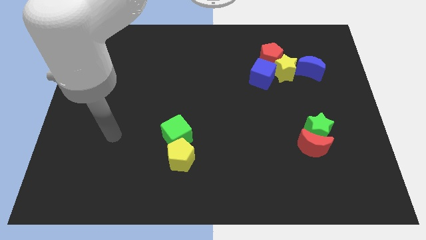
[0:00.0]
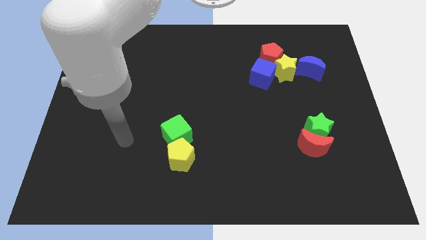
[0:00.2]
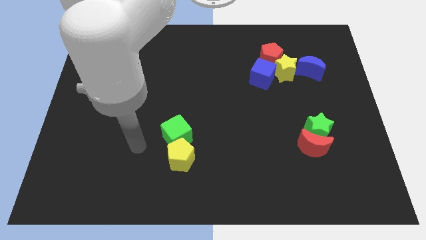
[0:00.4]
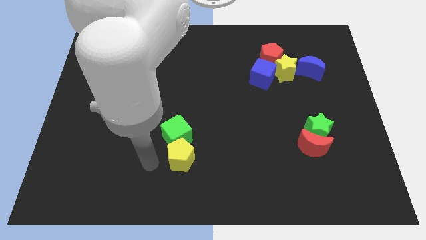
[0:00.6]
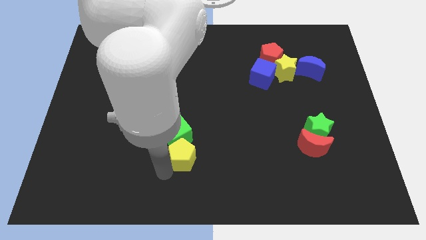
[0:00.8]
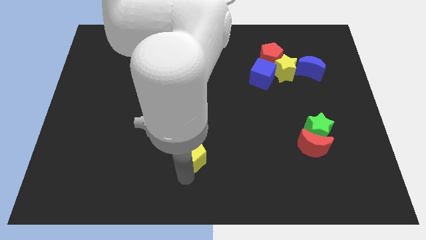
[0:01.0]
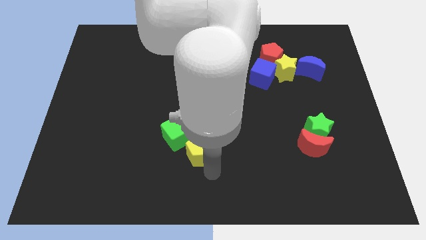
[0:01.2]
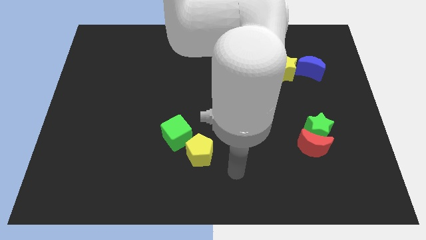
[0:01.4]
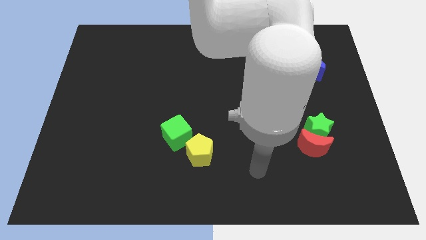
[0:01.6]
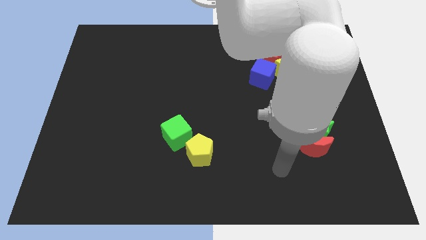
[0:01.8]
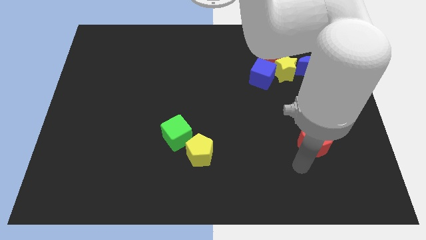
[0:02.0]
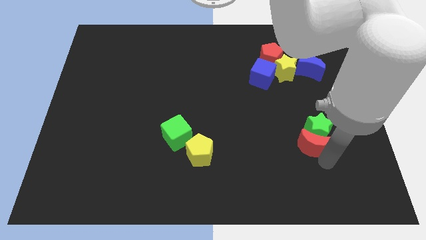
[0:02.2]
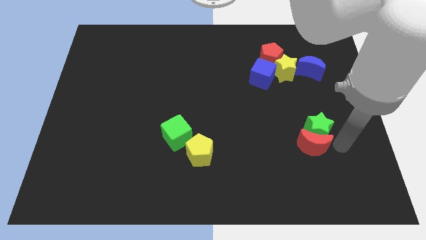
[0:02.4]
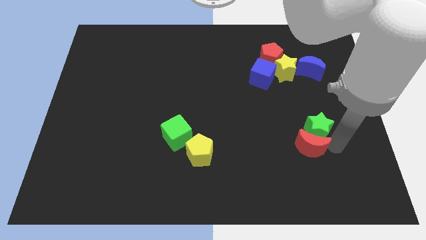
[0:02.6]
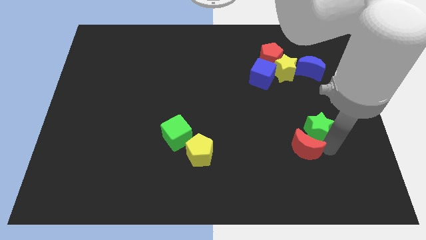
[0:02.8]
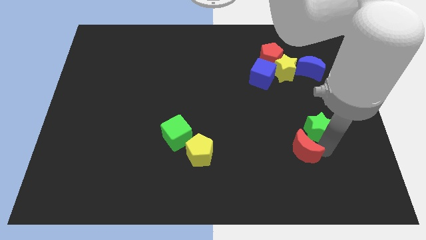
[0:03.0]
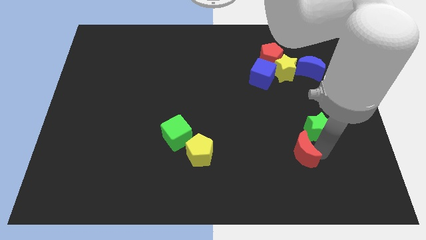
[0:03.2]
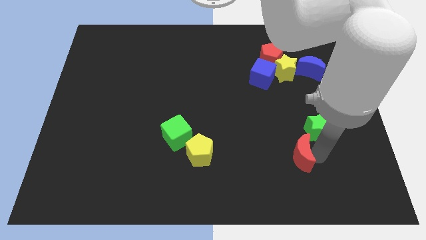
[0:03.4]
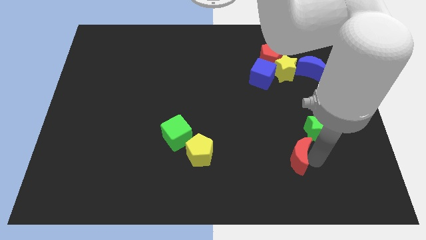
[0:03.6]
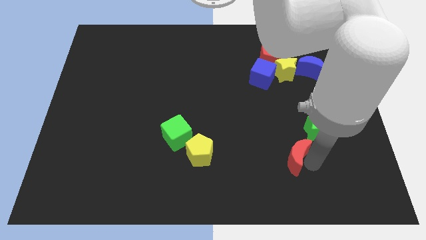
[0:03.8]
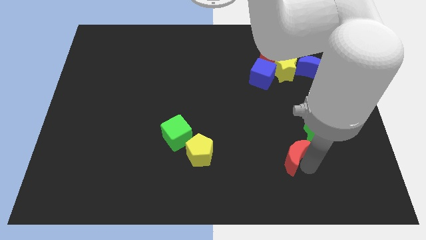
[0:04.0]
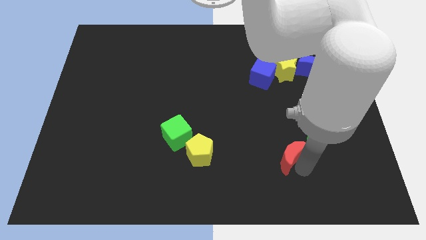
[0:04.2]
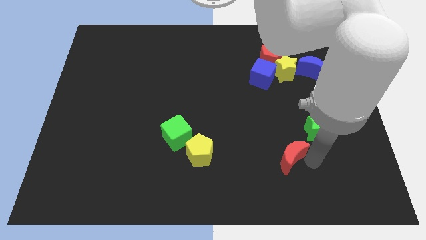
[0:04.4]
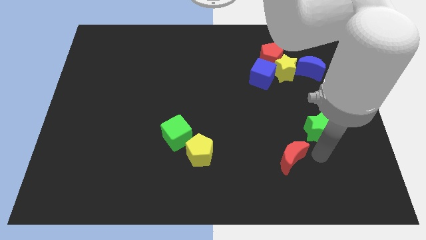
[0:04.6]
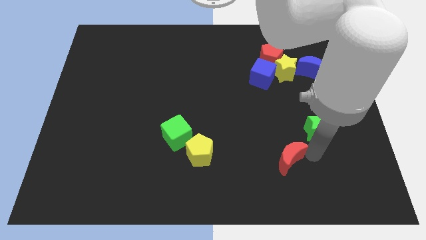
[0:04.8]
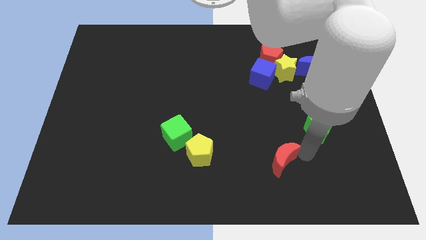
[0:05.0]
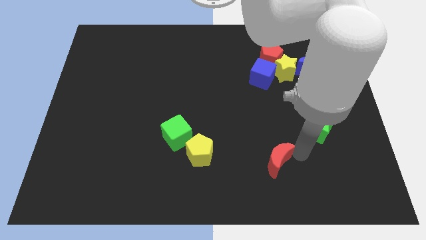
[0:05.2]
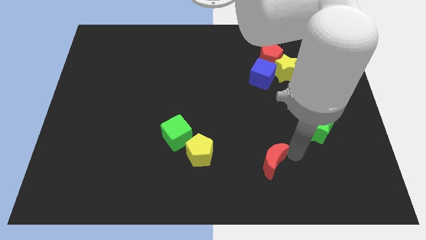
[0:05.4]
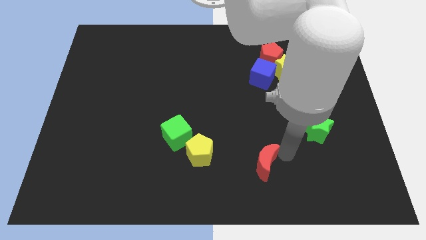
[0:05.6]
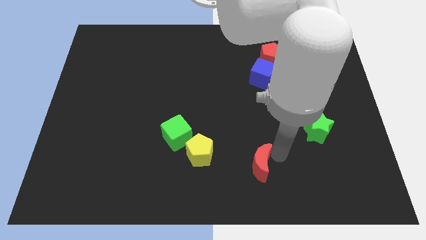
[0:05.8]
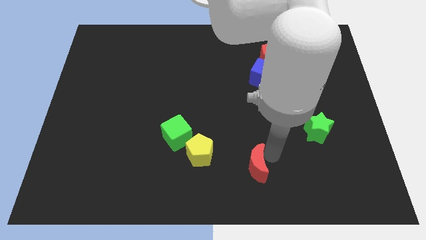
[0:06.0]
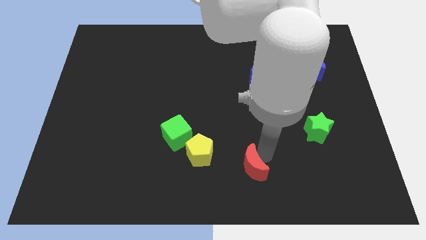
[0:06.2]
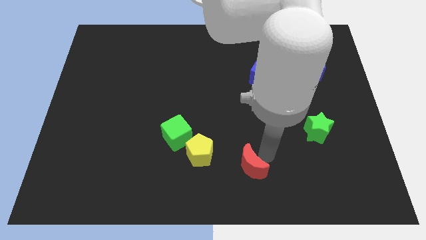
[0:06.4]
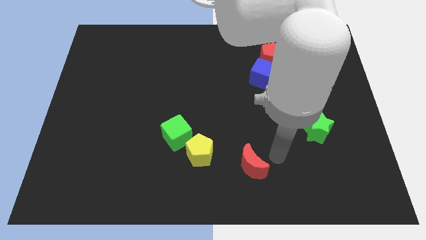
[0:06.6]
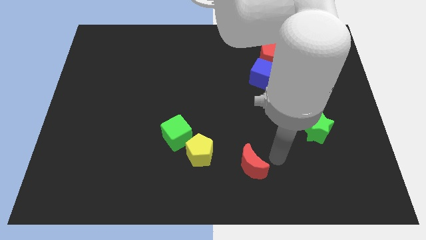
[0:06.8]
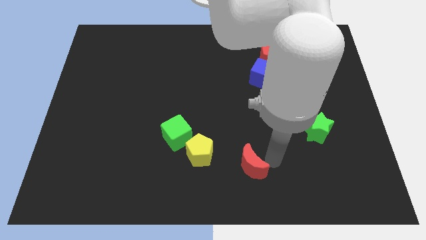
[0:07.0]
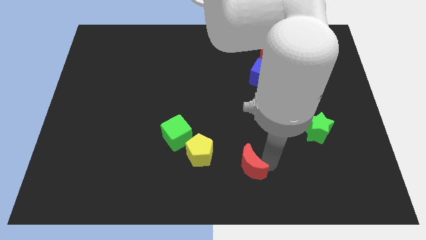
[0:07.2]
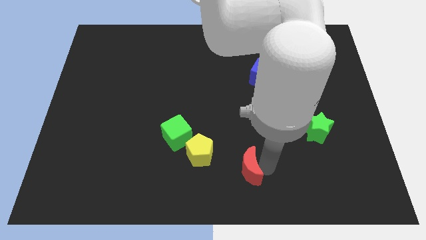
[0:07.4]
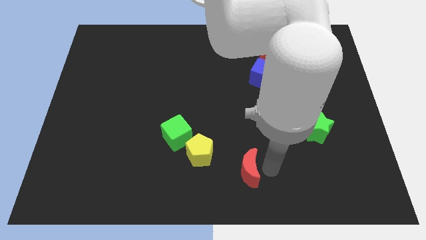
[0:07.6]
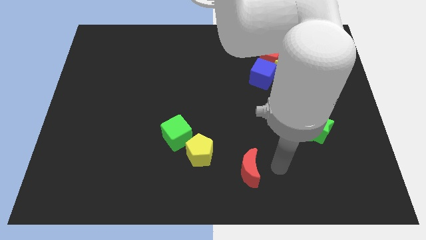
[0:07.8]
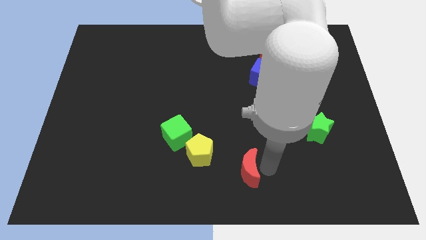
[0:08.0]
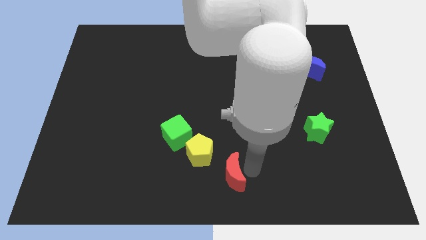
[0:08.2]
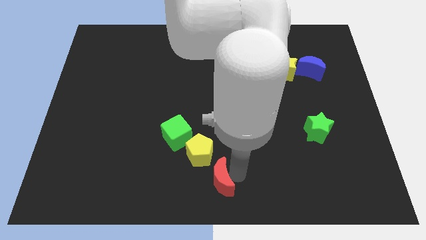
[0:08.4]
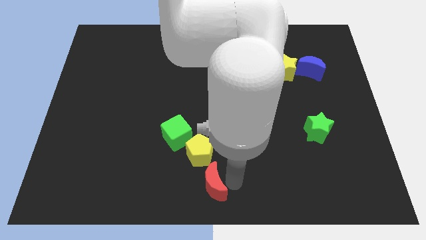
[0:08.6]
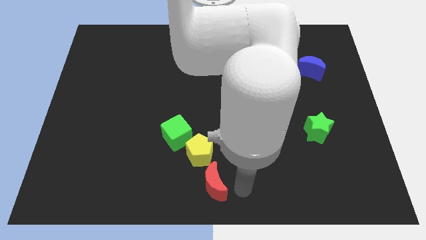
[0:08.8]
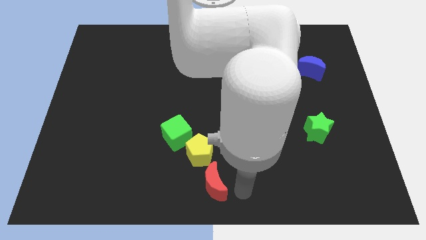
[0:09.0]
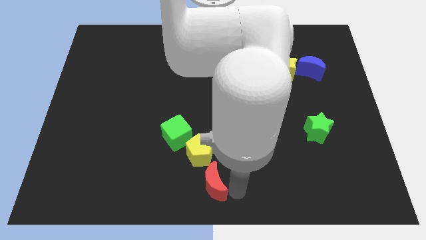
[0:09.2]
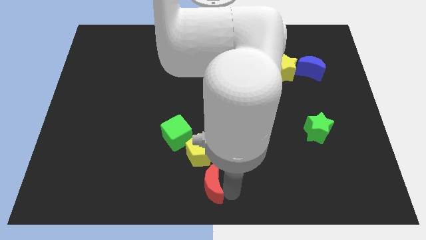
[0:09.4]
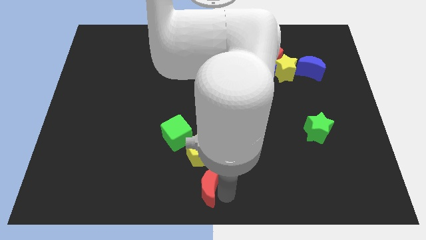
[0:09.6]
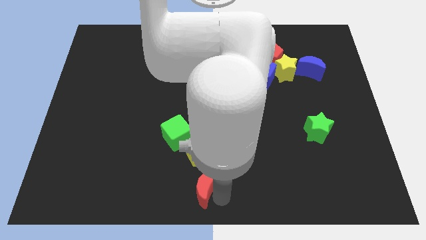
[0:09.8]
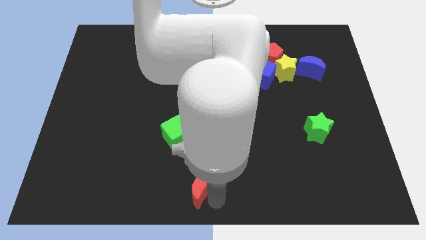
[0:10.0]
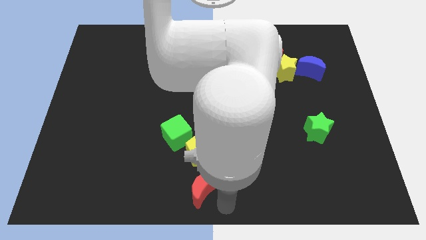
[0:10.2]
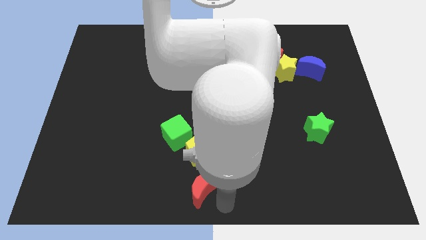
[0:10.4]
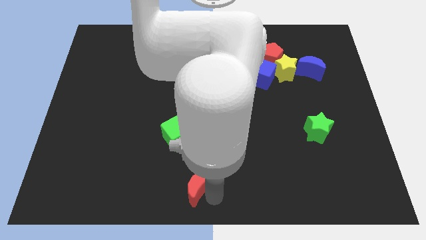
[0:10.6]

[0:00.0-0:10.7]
push the red moon left

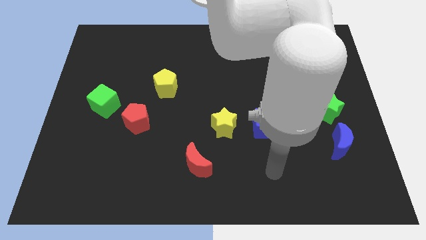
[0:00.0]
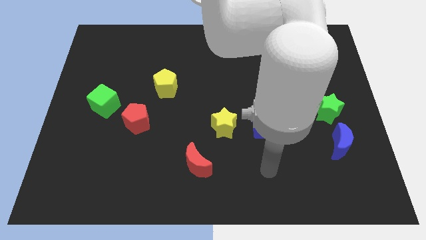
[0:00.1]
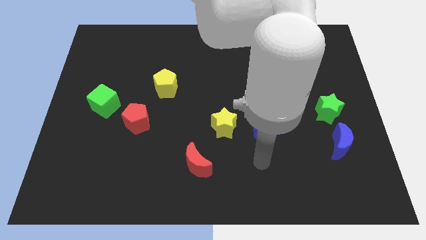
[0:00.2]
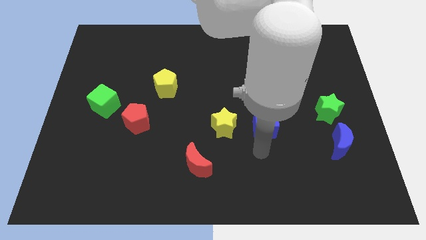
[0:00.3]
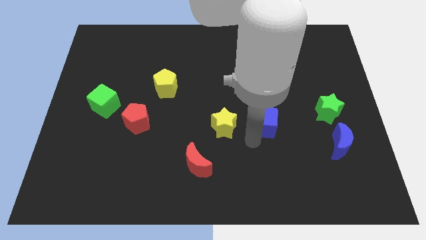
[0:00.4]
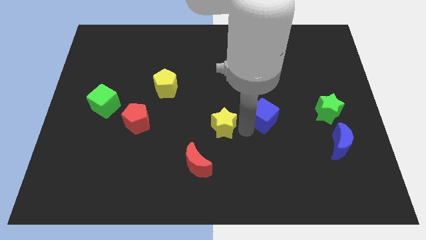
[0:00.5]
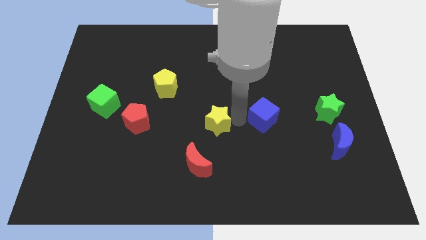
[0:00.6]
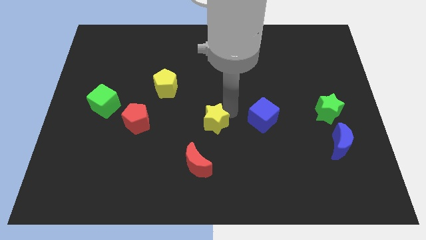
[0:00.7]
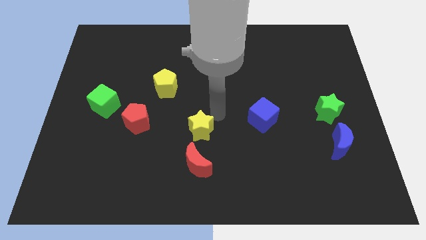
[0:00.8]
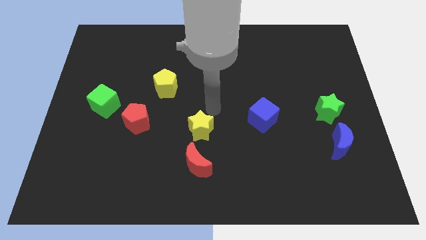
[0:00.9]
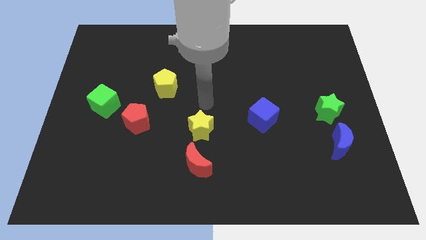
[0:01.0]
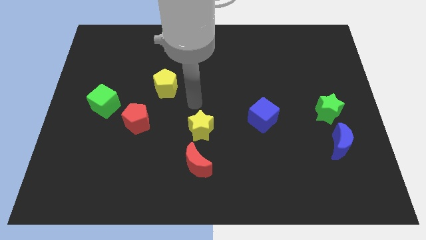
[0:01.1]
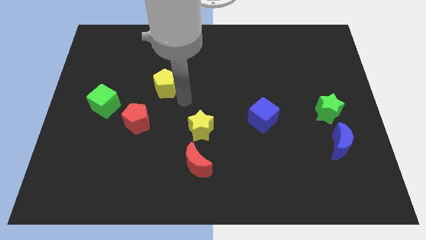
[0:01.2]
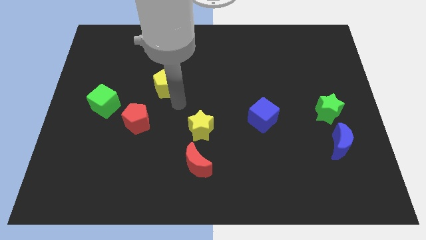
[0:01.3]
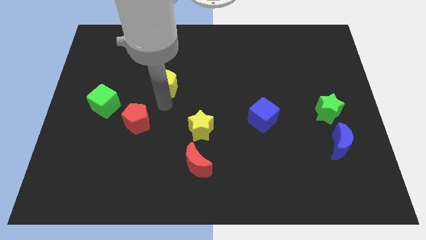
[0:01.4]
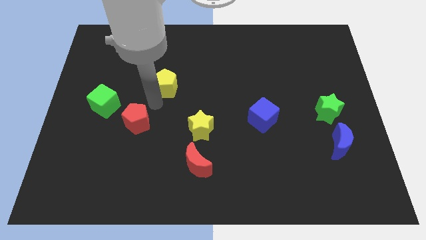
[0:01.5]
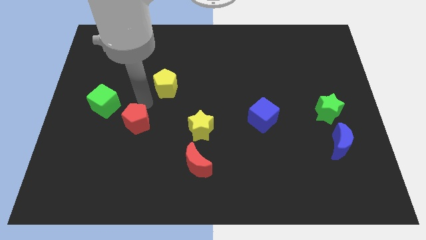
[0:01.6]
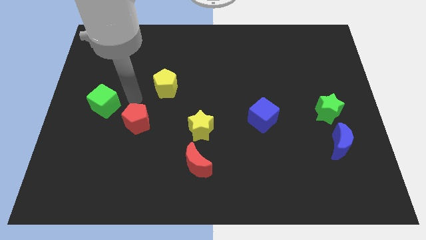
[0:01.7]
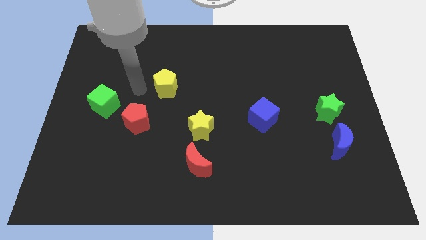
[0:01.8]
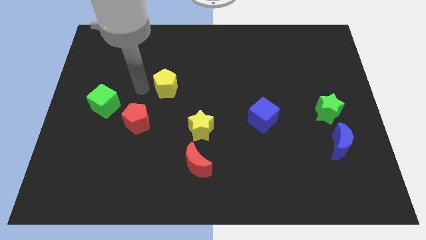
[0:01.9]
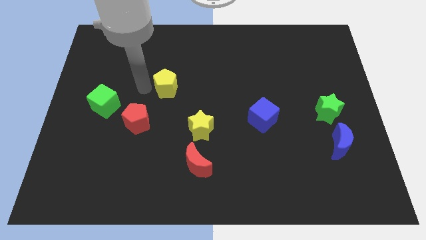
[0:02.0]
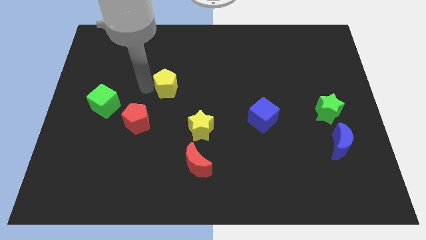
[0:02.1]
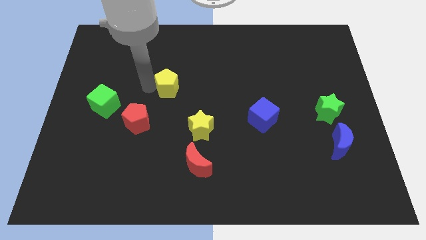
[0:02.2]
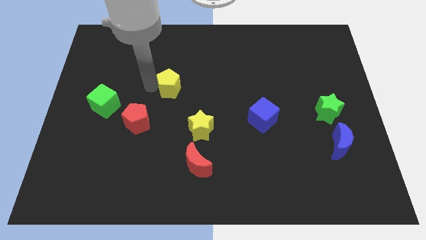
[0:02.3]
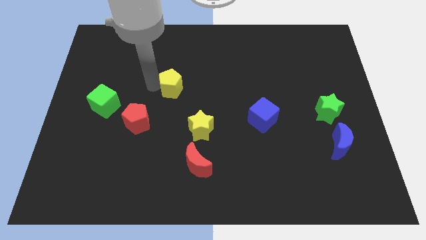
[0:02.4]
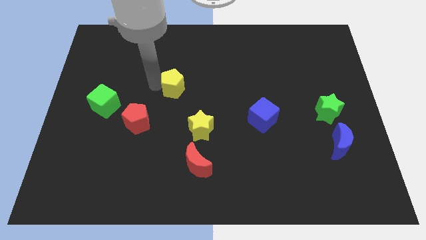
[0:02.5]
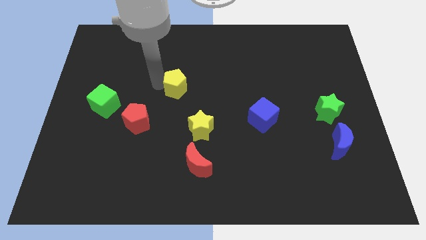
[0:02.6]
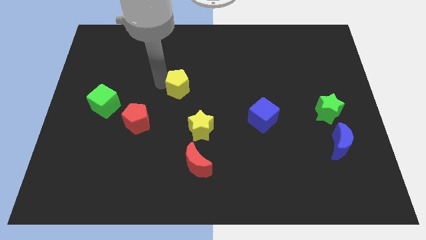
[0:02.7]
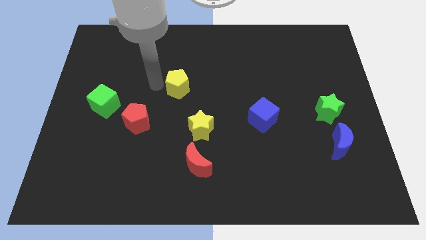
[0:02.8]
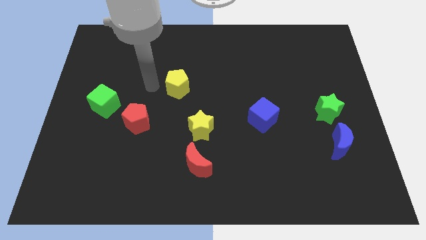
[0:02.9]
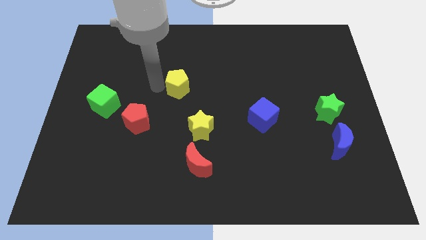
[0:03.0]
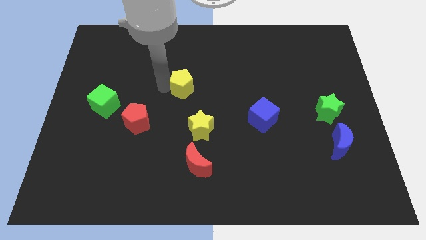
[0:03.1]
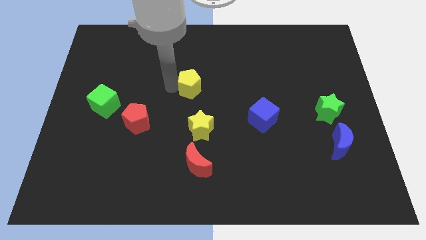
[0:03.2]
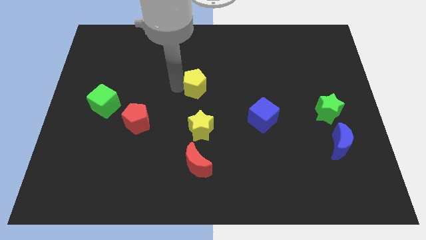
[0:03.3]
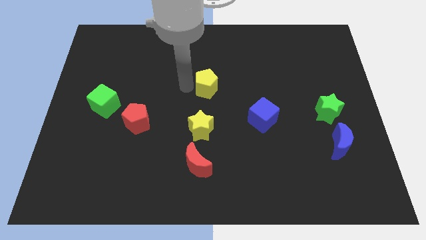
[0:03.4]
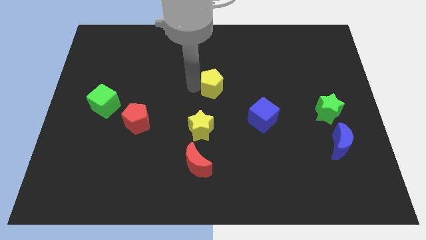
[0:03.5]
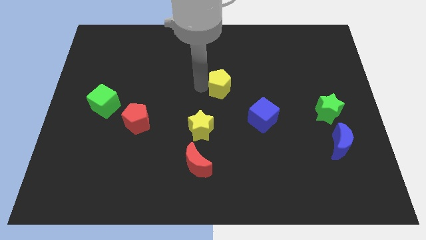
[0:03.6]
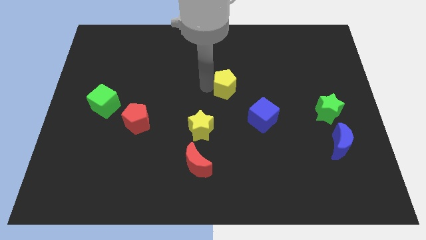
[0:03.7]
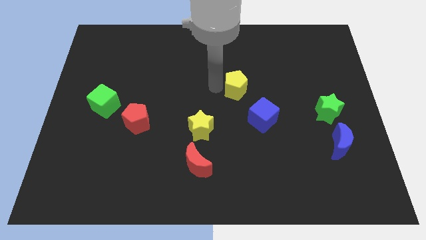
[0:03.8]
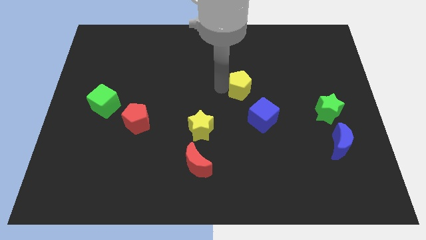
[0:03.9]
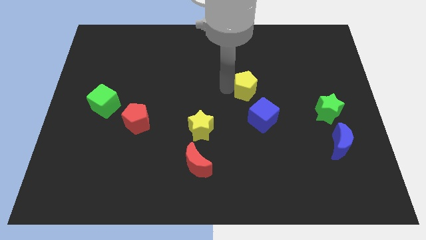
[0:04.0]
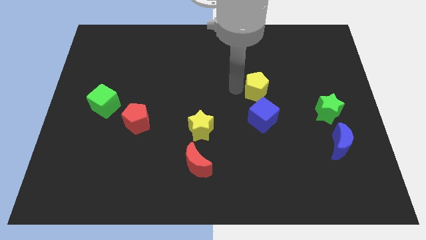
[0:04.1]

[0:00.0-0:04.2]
move the yellow pentagon to the right
